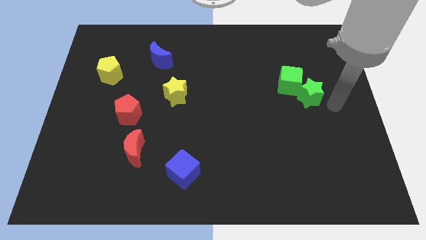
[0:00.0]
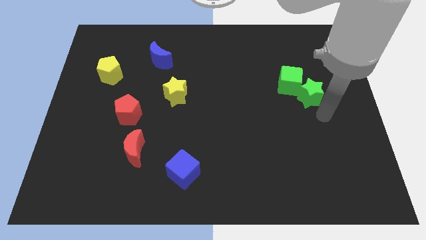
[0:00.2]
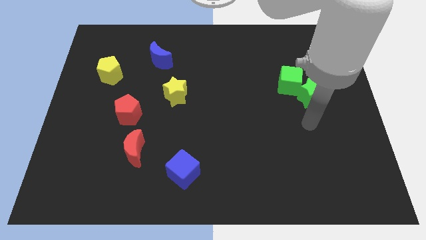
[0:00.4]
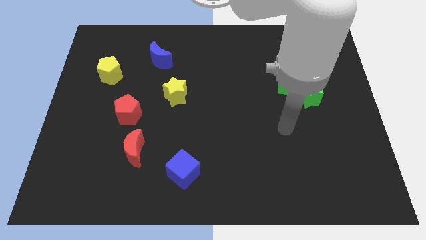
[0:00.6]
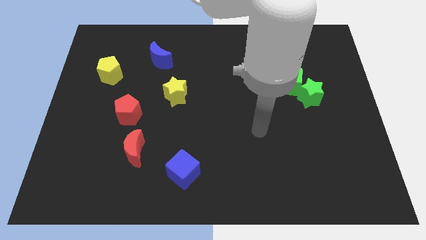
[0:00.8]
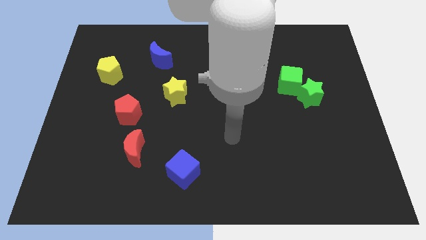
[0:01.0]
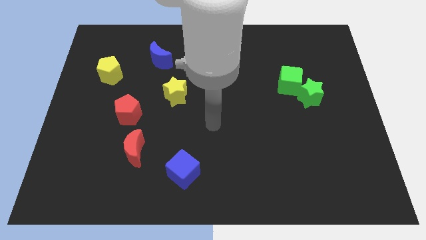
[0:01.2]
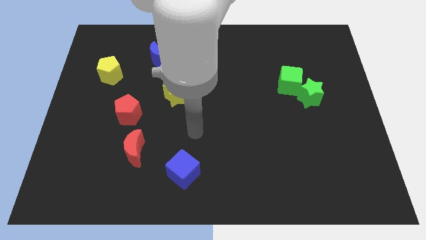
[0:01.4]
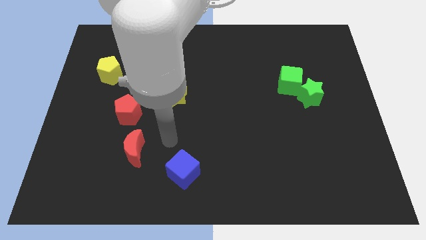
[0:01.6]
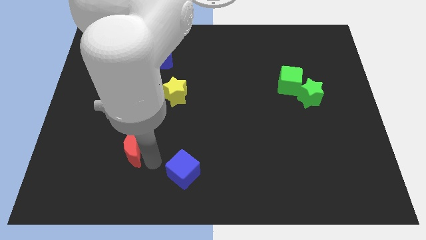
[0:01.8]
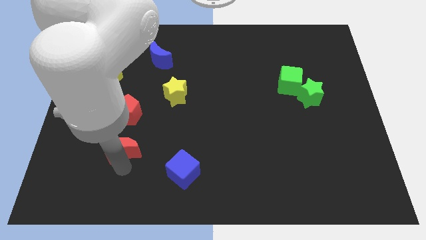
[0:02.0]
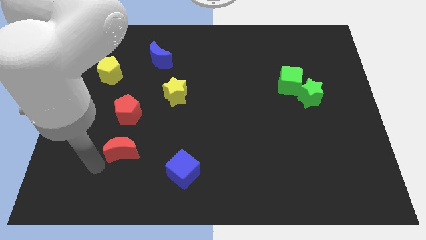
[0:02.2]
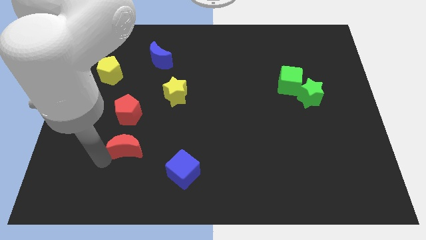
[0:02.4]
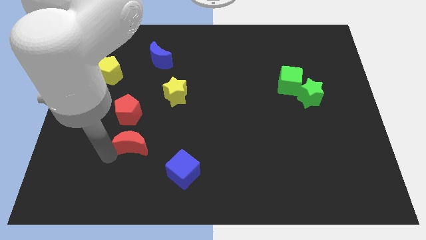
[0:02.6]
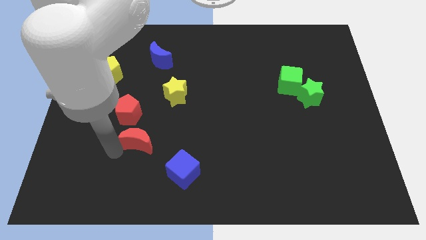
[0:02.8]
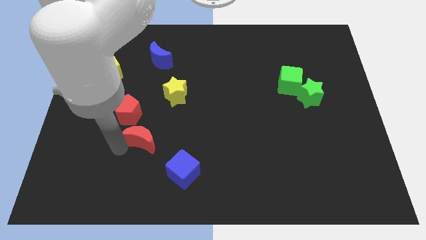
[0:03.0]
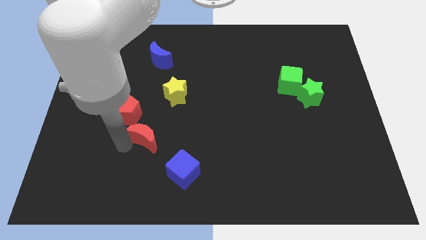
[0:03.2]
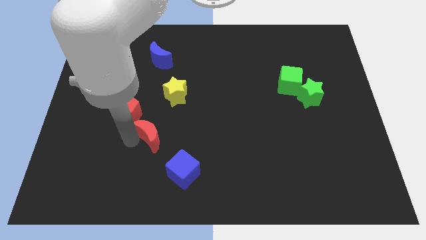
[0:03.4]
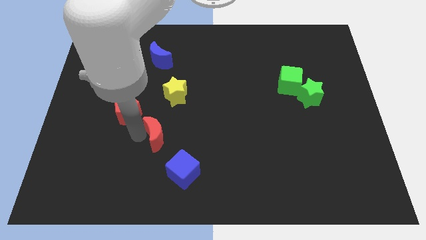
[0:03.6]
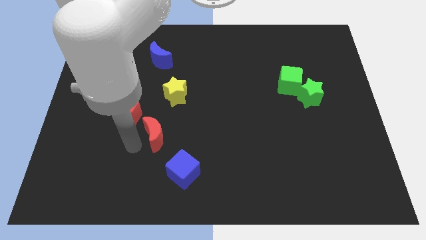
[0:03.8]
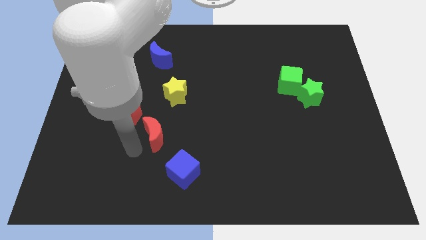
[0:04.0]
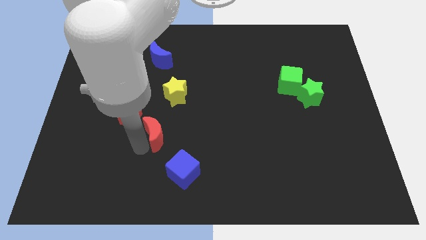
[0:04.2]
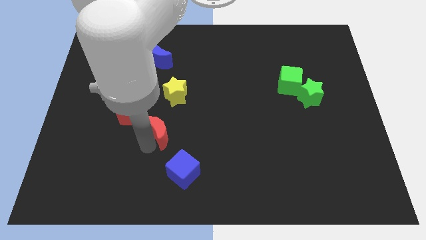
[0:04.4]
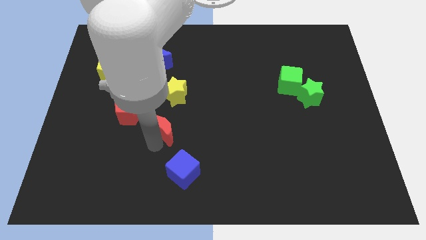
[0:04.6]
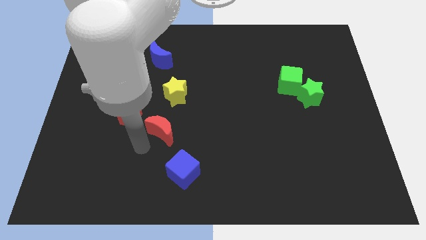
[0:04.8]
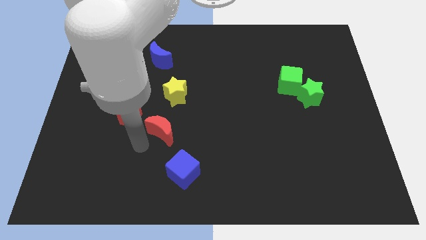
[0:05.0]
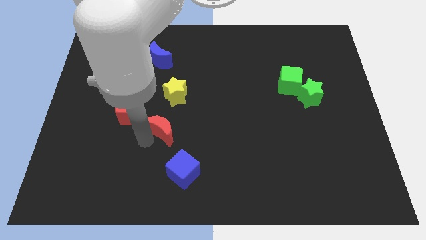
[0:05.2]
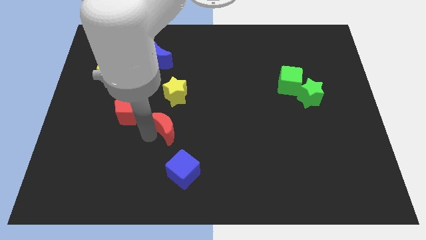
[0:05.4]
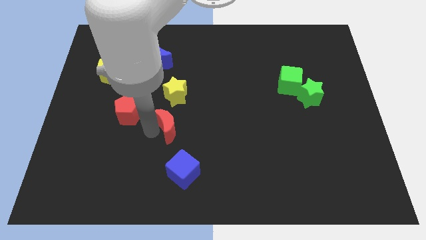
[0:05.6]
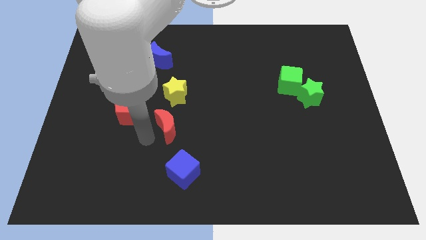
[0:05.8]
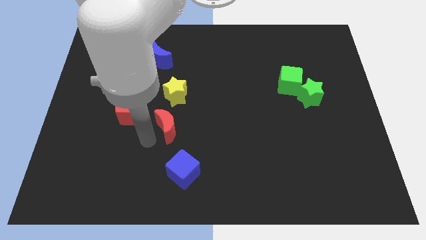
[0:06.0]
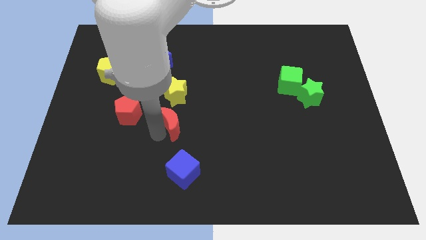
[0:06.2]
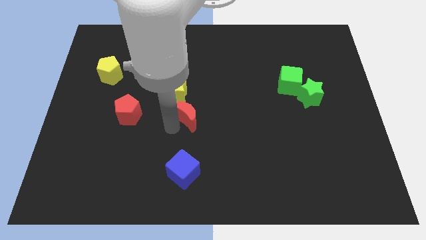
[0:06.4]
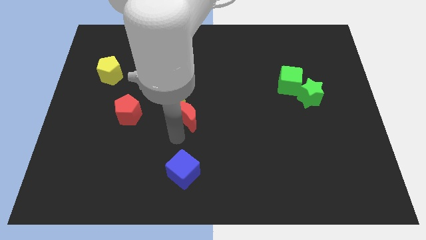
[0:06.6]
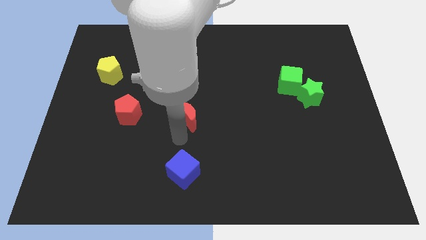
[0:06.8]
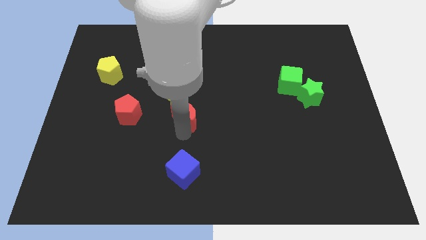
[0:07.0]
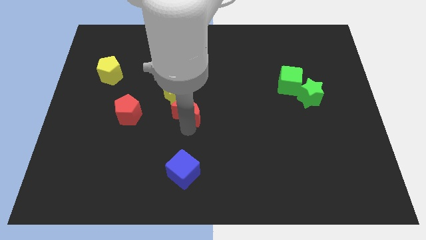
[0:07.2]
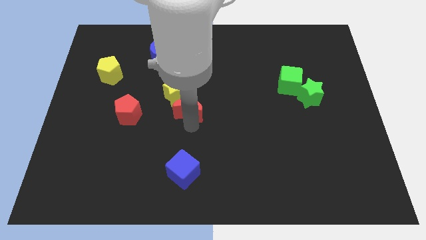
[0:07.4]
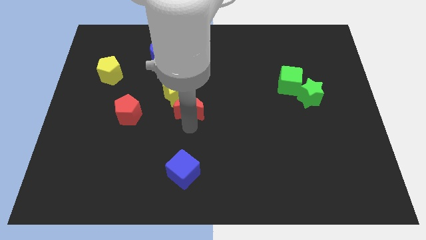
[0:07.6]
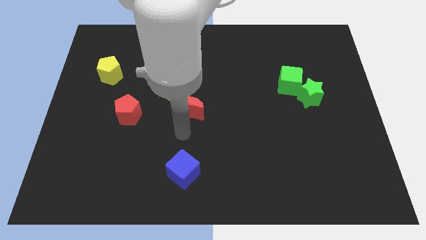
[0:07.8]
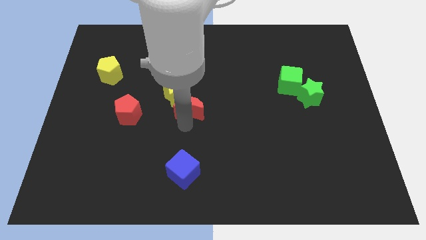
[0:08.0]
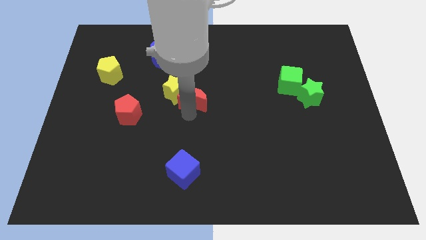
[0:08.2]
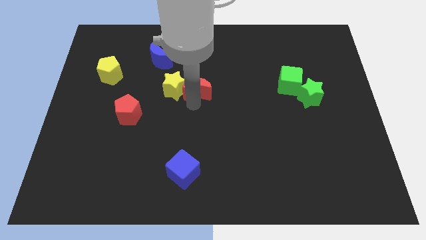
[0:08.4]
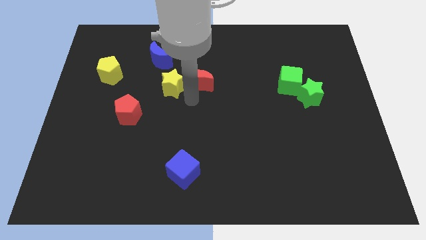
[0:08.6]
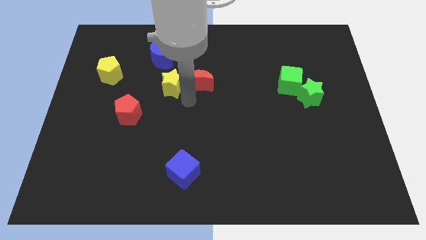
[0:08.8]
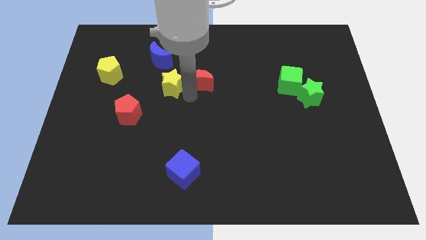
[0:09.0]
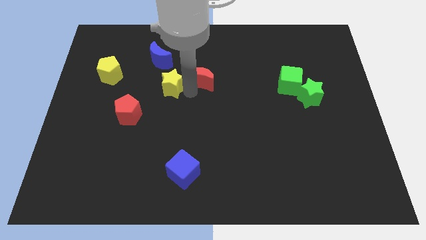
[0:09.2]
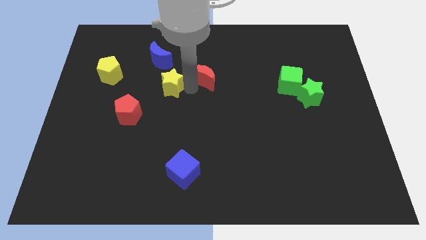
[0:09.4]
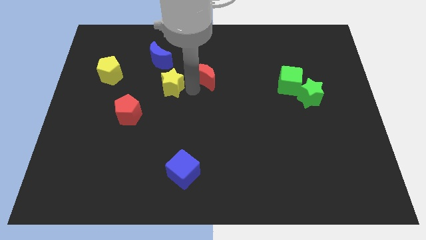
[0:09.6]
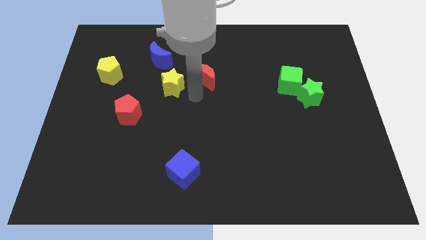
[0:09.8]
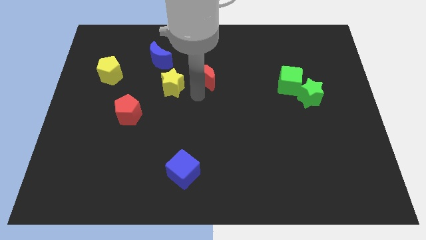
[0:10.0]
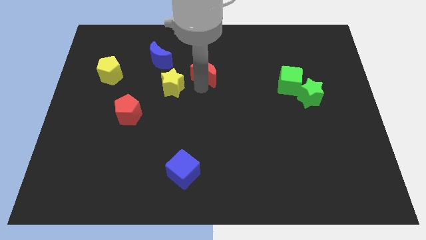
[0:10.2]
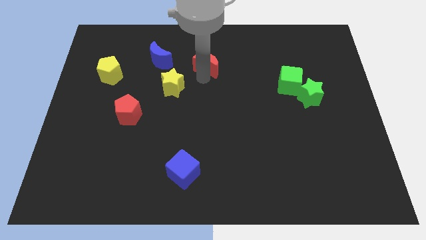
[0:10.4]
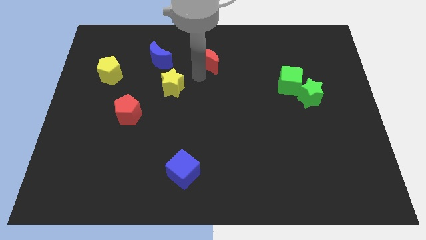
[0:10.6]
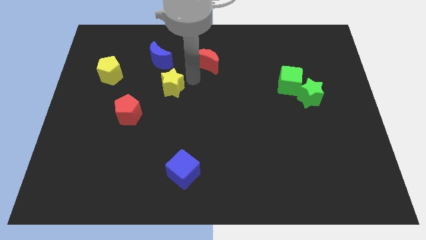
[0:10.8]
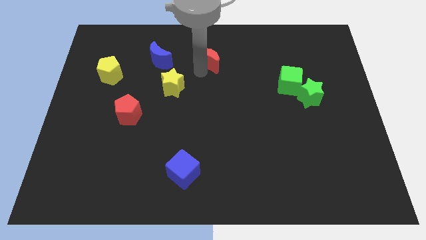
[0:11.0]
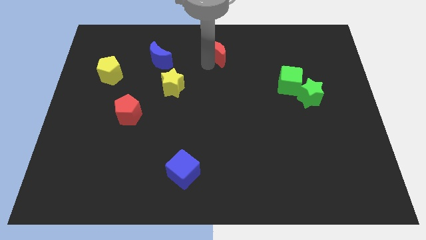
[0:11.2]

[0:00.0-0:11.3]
put the red moon to the top

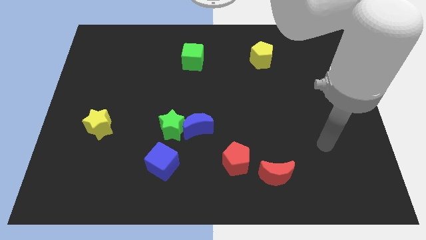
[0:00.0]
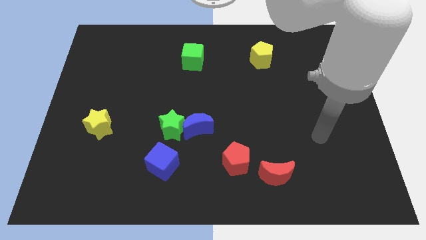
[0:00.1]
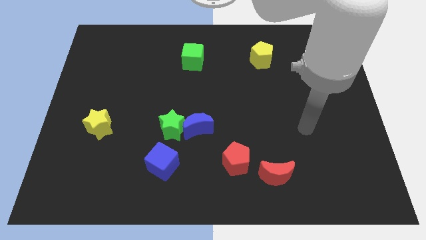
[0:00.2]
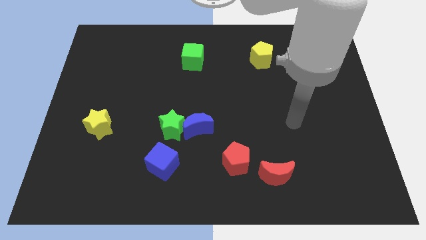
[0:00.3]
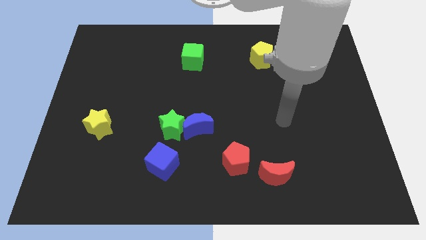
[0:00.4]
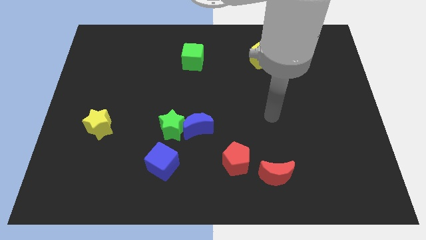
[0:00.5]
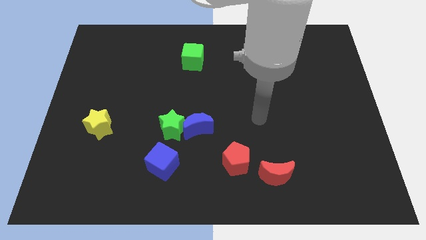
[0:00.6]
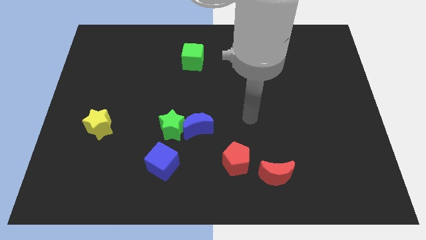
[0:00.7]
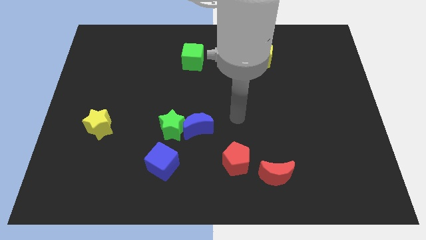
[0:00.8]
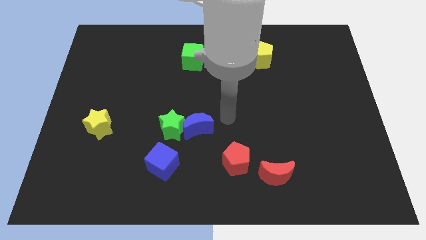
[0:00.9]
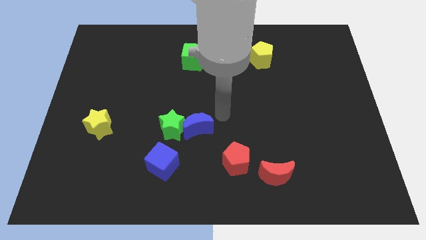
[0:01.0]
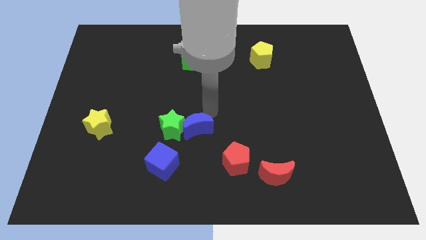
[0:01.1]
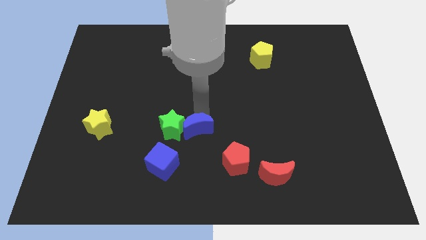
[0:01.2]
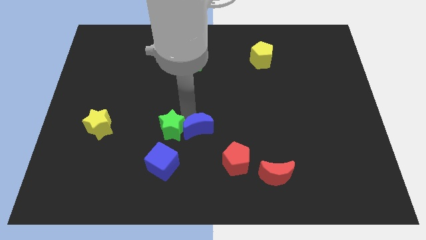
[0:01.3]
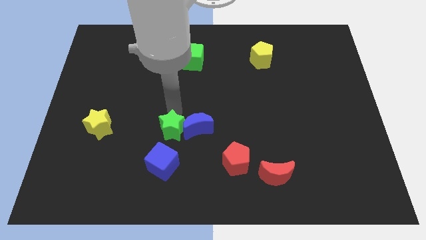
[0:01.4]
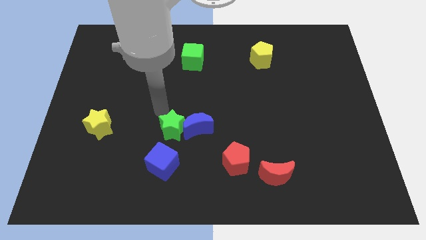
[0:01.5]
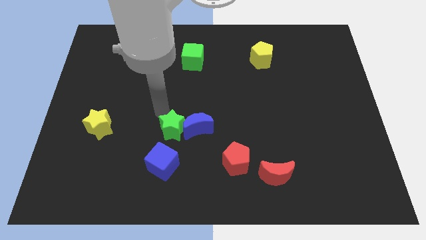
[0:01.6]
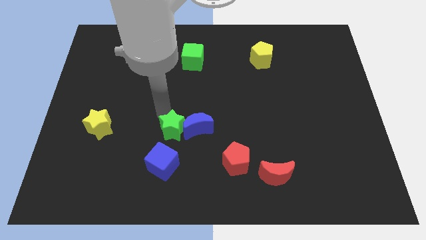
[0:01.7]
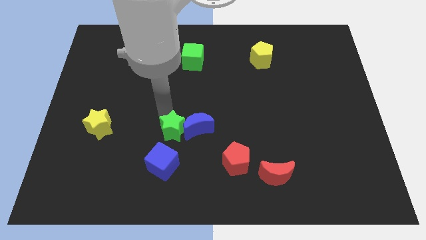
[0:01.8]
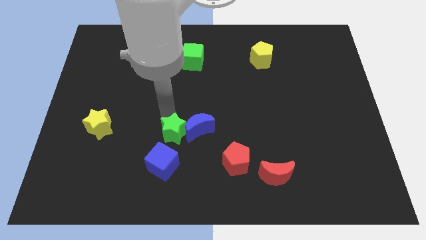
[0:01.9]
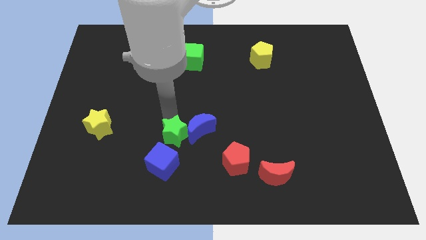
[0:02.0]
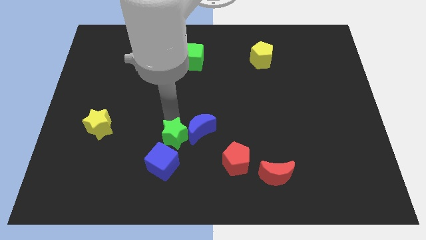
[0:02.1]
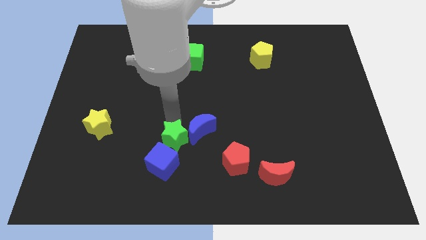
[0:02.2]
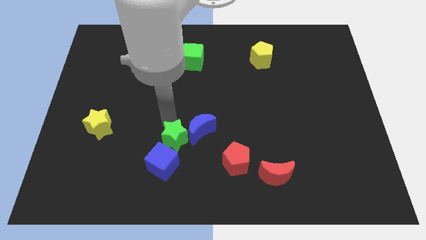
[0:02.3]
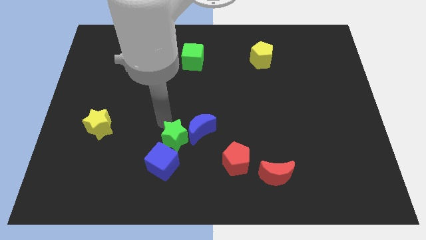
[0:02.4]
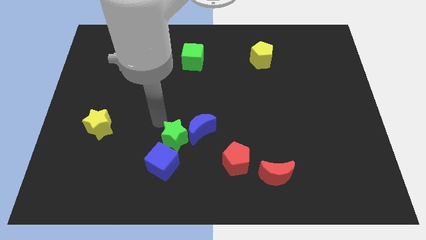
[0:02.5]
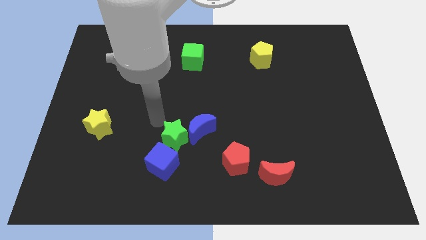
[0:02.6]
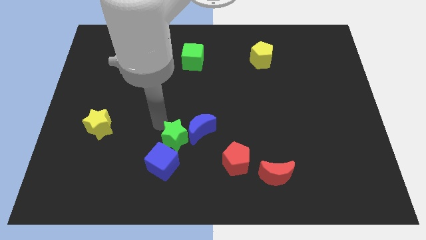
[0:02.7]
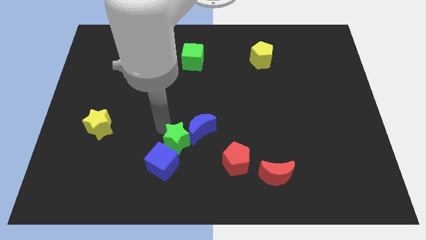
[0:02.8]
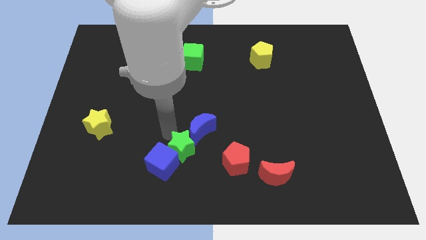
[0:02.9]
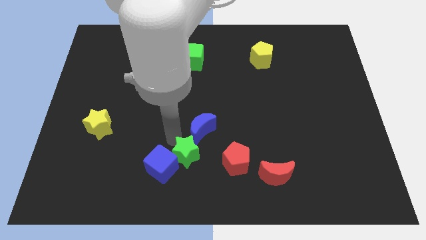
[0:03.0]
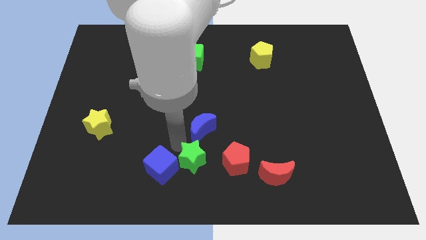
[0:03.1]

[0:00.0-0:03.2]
push the green star to the bottom
